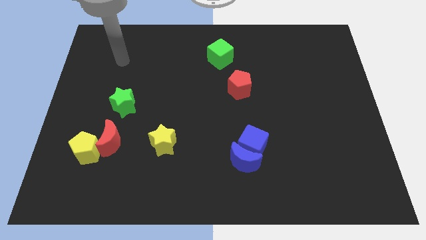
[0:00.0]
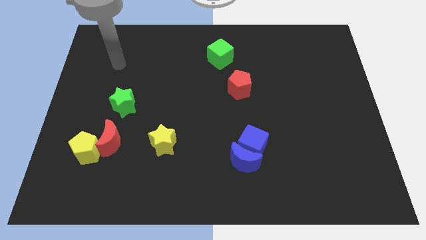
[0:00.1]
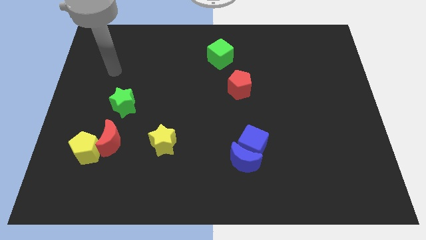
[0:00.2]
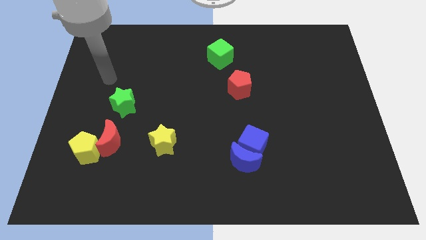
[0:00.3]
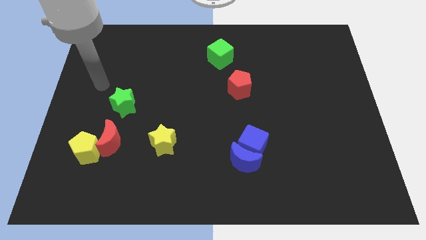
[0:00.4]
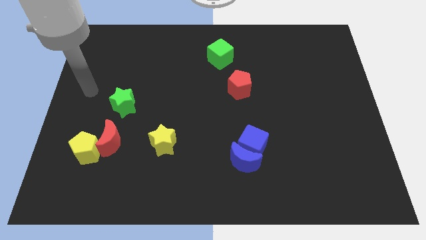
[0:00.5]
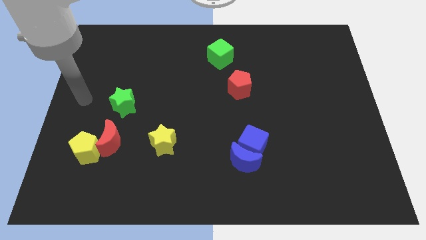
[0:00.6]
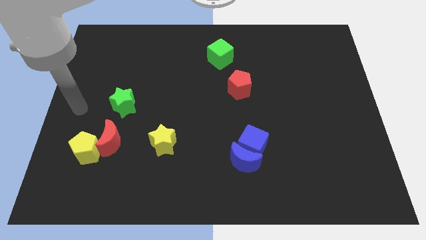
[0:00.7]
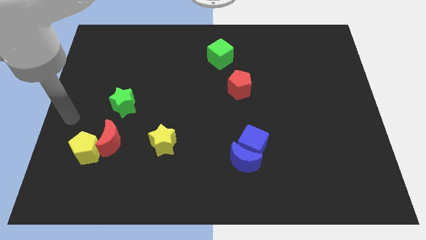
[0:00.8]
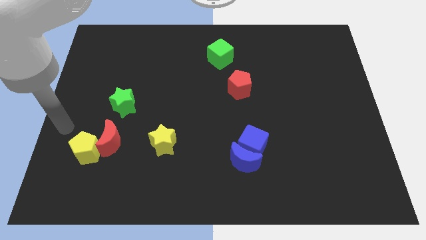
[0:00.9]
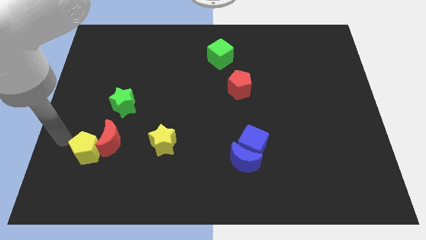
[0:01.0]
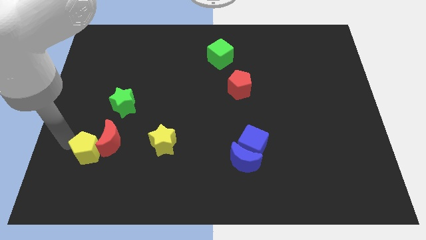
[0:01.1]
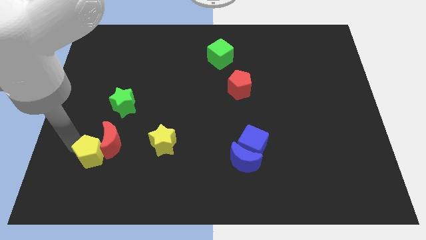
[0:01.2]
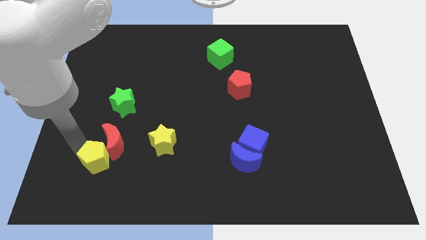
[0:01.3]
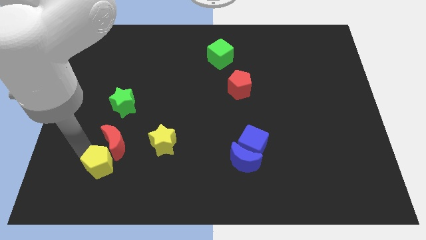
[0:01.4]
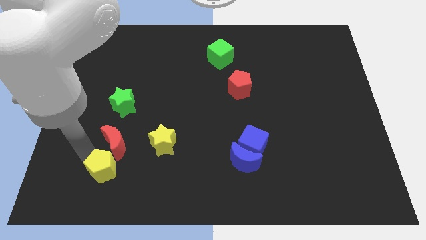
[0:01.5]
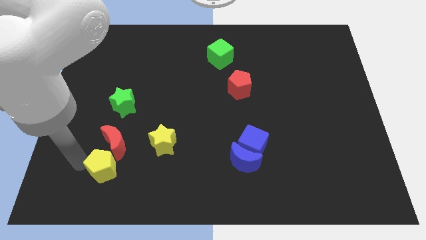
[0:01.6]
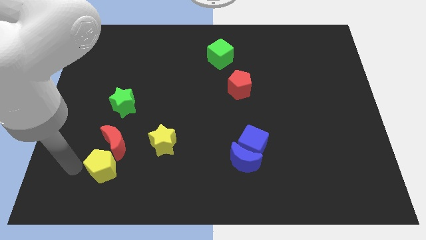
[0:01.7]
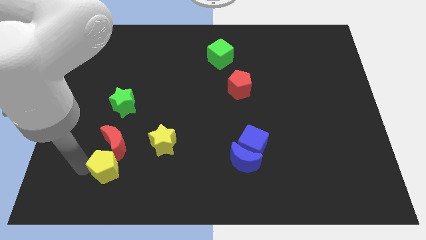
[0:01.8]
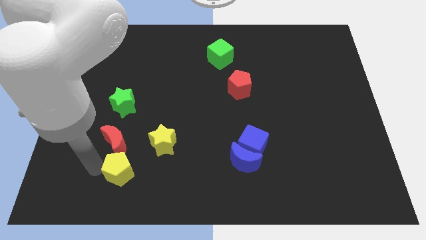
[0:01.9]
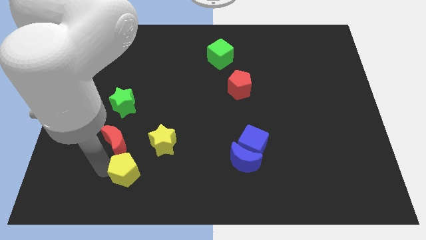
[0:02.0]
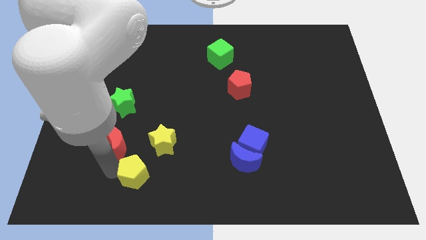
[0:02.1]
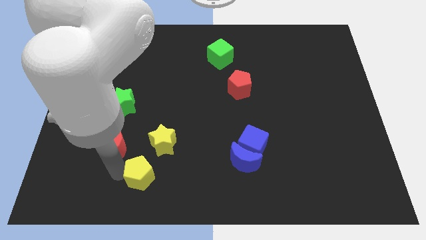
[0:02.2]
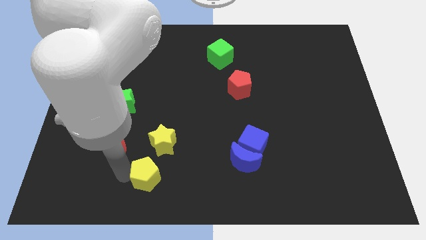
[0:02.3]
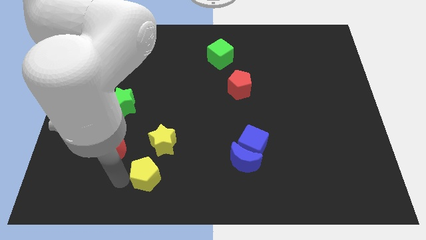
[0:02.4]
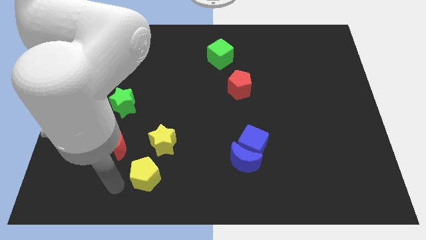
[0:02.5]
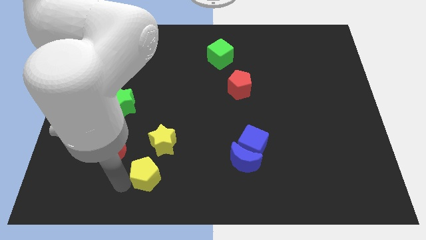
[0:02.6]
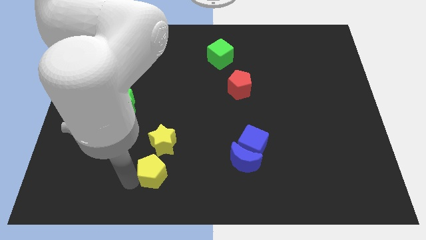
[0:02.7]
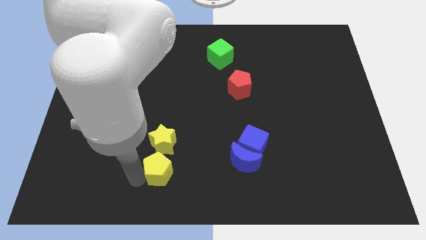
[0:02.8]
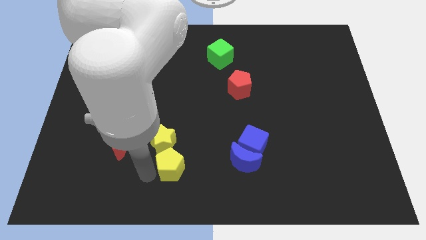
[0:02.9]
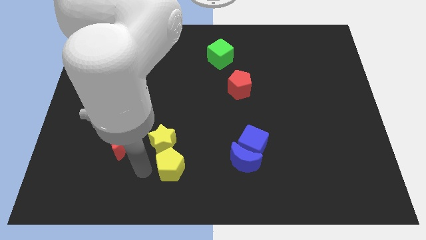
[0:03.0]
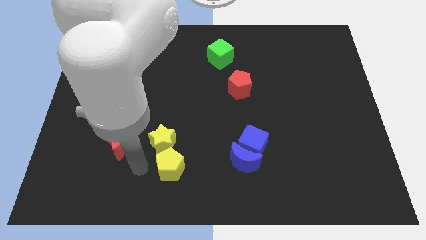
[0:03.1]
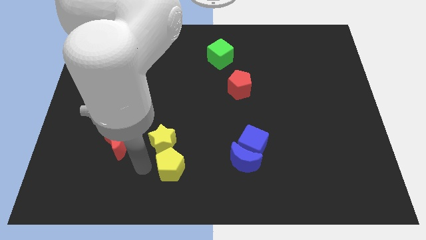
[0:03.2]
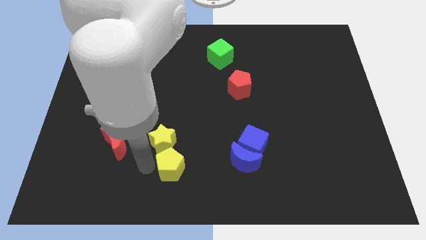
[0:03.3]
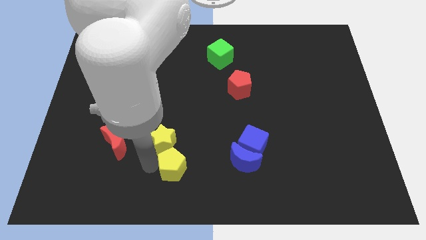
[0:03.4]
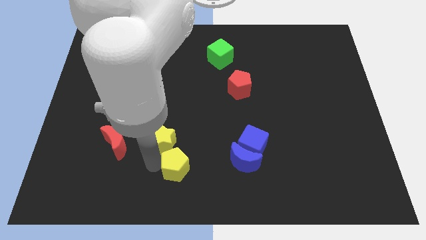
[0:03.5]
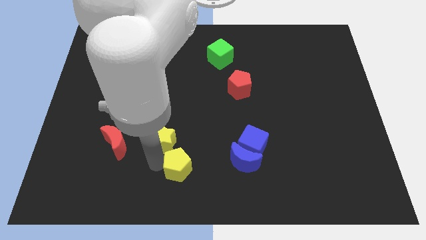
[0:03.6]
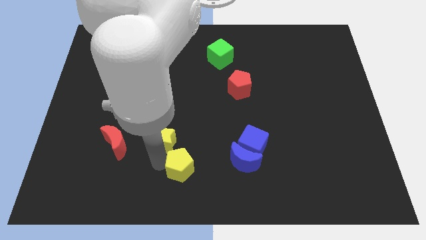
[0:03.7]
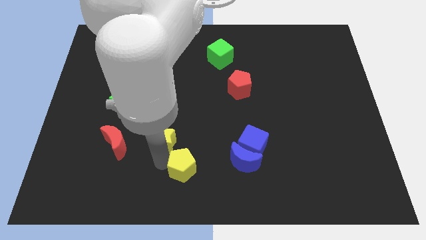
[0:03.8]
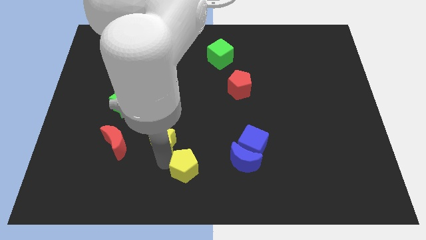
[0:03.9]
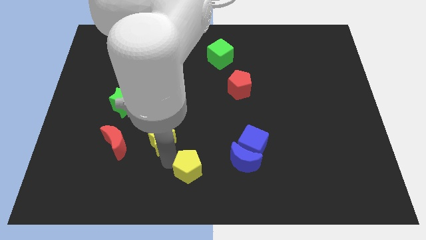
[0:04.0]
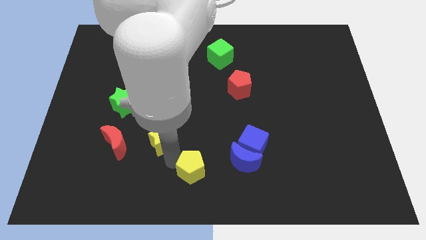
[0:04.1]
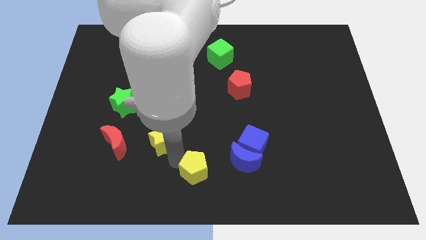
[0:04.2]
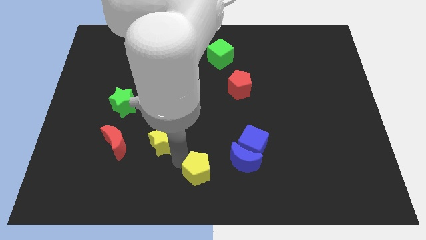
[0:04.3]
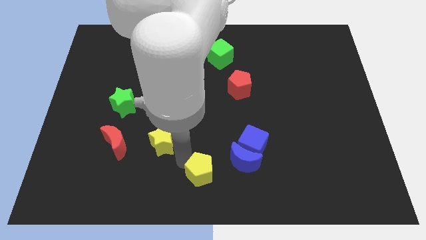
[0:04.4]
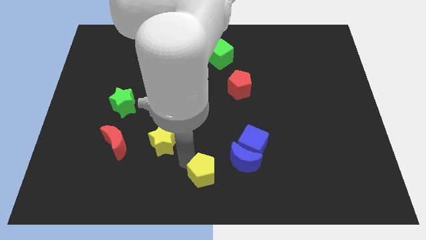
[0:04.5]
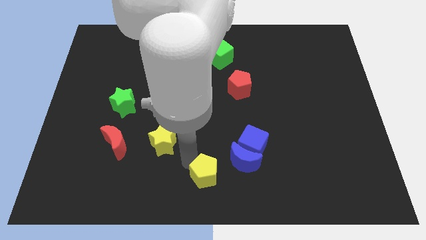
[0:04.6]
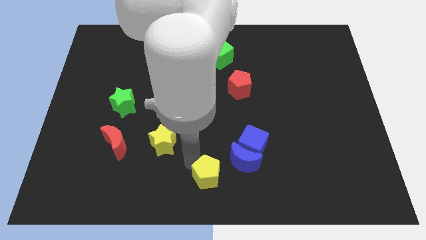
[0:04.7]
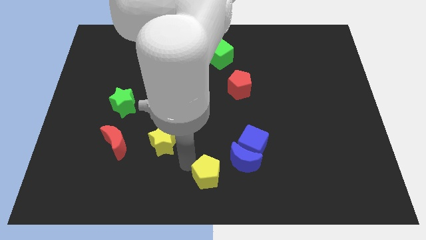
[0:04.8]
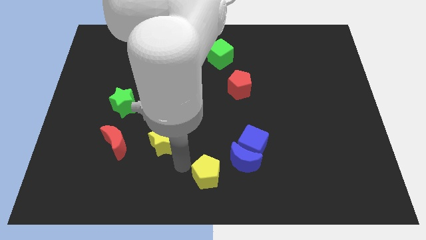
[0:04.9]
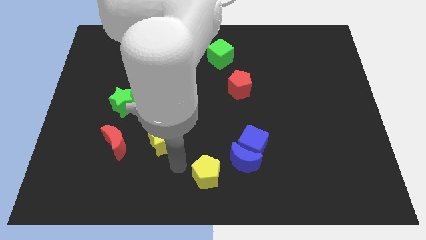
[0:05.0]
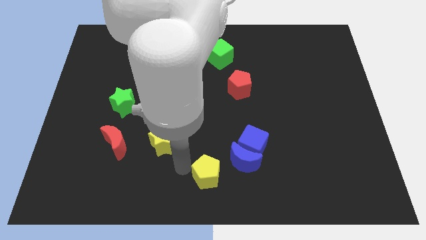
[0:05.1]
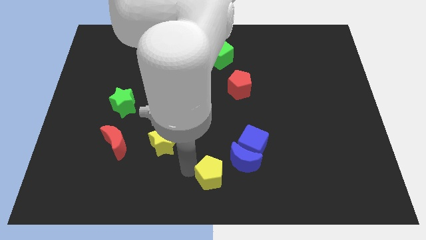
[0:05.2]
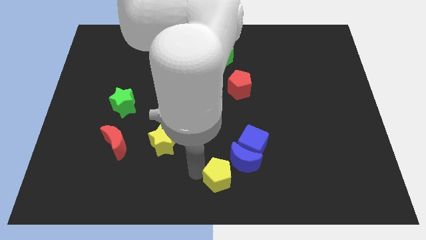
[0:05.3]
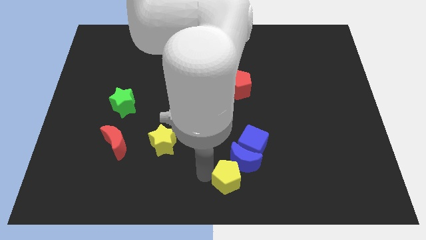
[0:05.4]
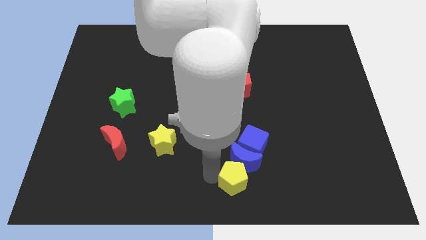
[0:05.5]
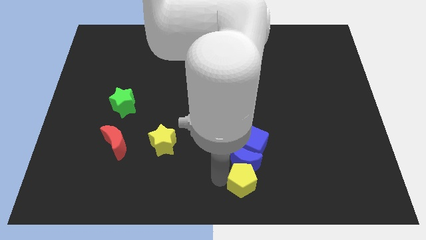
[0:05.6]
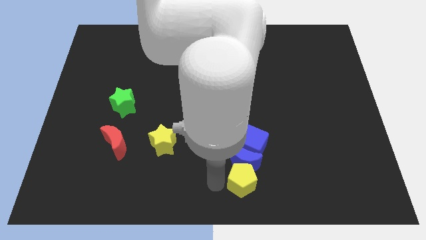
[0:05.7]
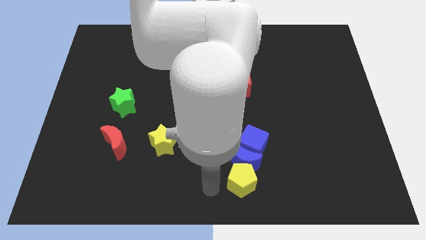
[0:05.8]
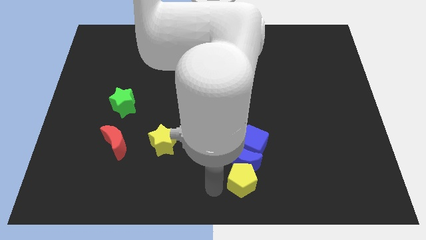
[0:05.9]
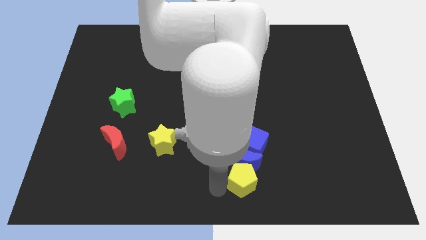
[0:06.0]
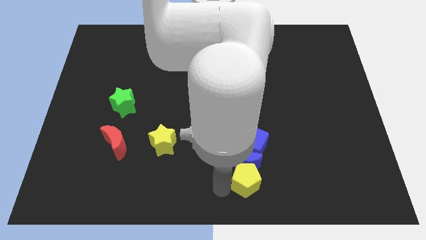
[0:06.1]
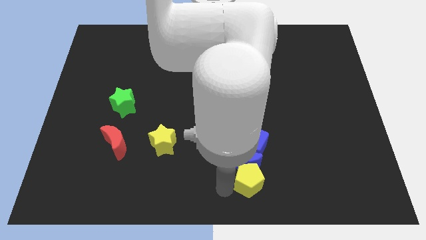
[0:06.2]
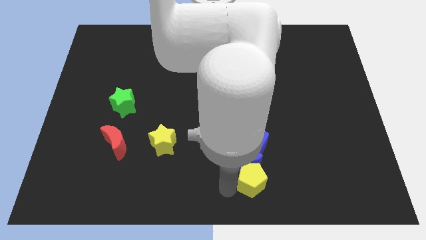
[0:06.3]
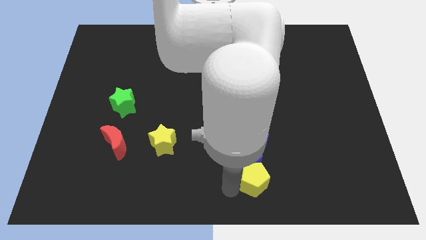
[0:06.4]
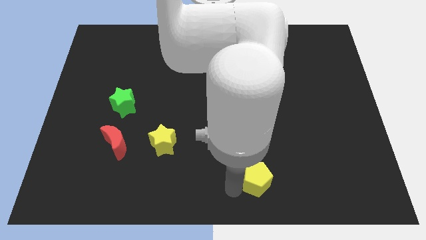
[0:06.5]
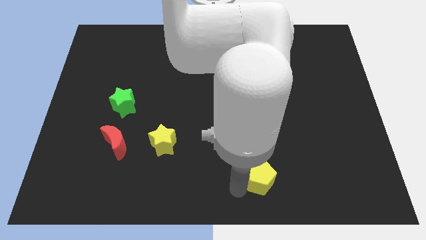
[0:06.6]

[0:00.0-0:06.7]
push the yellow pentagon to the right of the blue moon

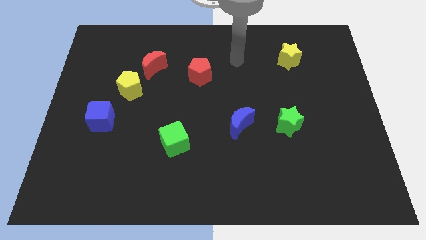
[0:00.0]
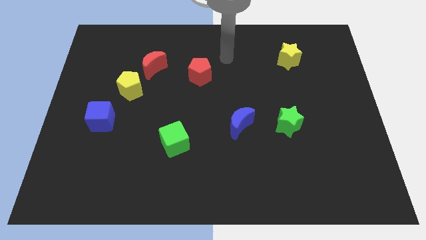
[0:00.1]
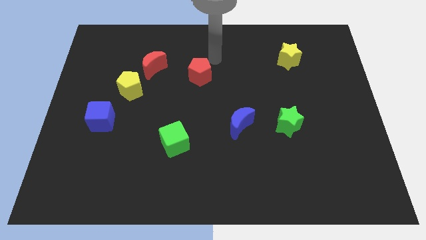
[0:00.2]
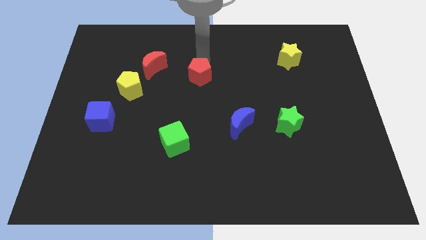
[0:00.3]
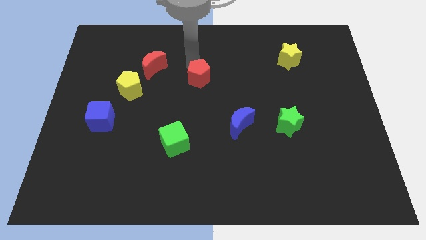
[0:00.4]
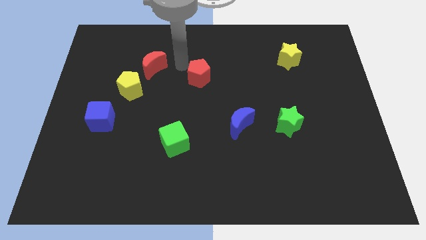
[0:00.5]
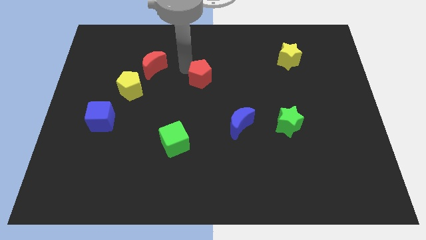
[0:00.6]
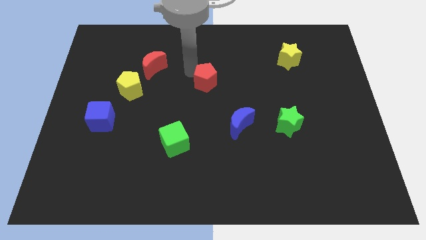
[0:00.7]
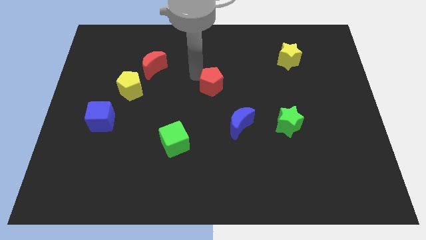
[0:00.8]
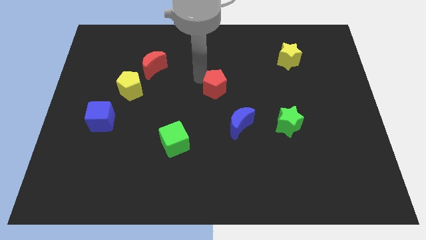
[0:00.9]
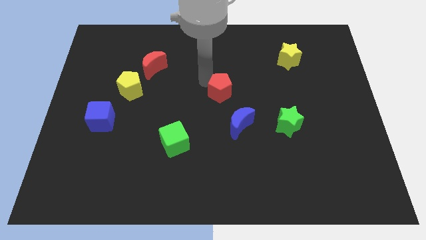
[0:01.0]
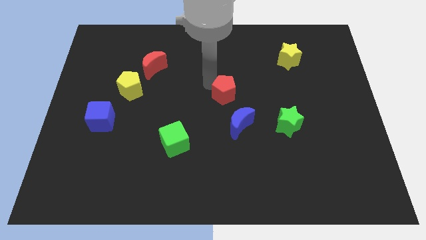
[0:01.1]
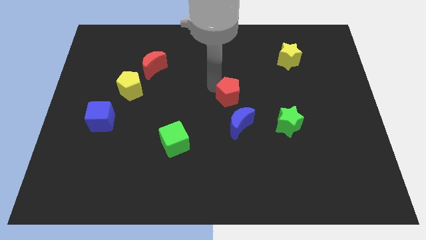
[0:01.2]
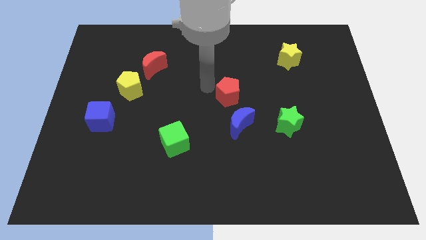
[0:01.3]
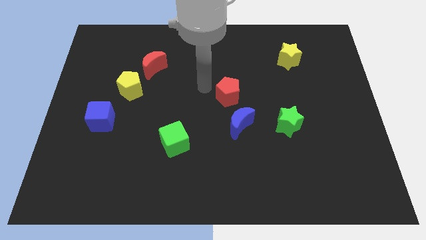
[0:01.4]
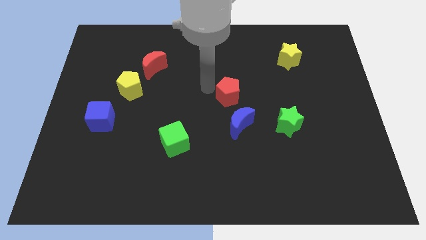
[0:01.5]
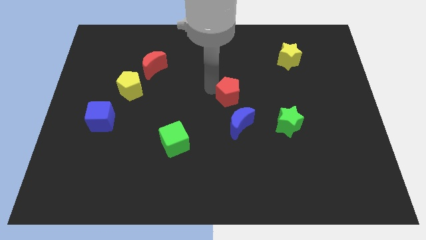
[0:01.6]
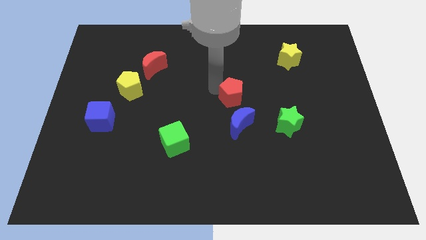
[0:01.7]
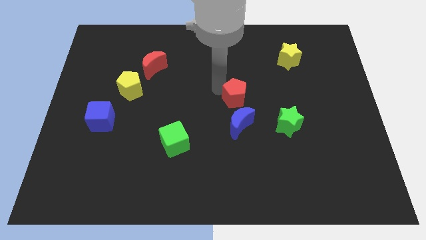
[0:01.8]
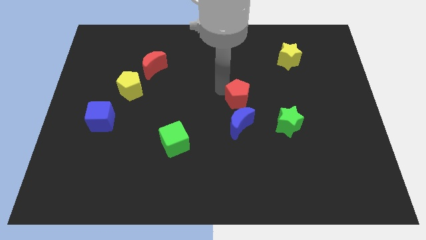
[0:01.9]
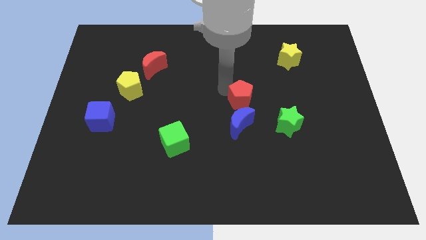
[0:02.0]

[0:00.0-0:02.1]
push the red pentagon to the top right side of the blue moon
